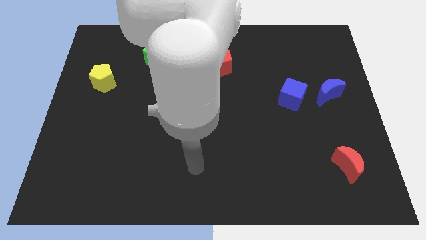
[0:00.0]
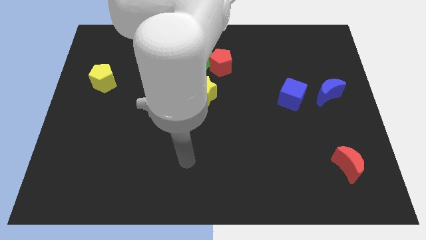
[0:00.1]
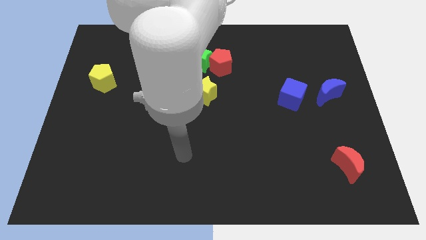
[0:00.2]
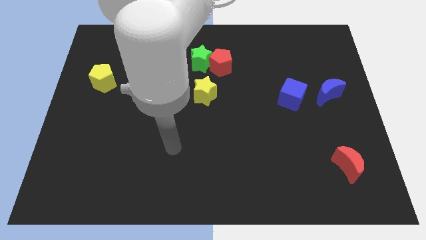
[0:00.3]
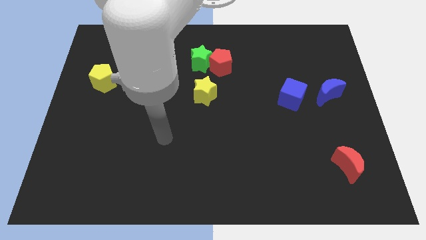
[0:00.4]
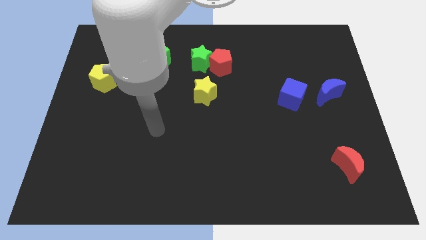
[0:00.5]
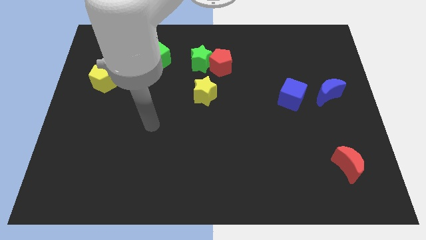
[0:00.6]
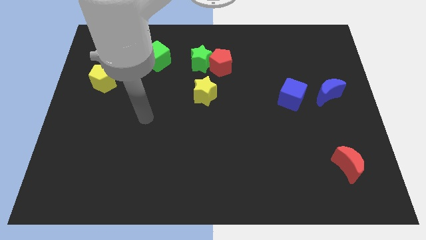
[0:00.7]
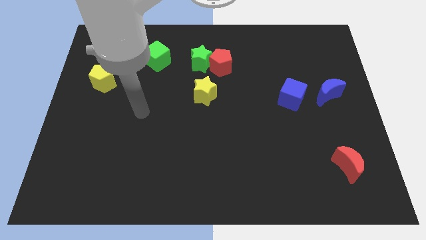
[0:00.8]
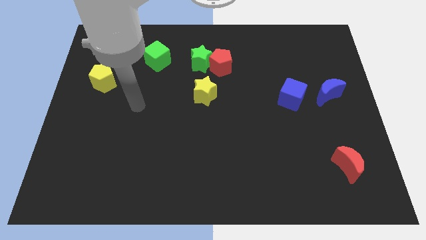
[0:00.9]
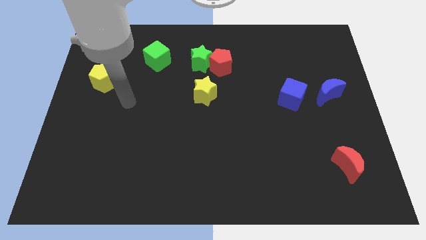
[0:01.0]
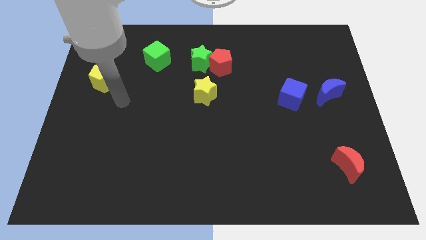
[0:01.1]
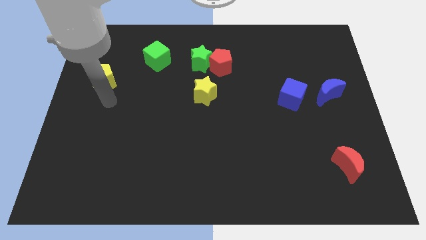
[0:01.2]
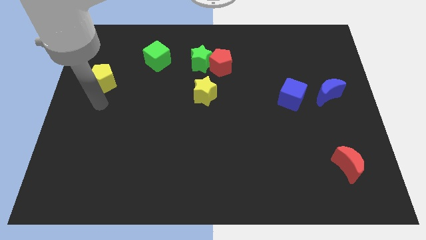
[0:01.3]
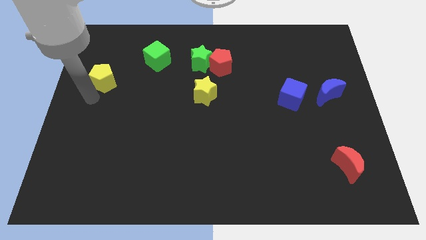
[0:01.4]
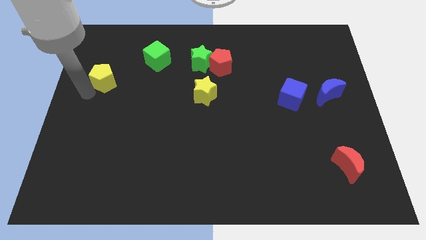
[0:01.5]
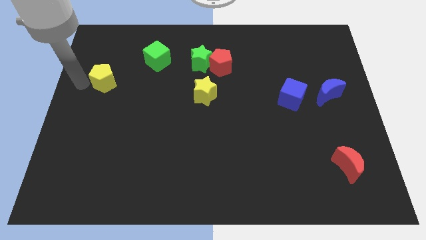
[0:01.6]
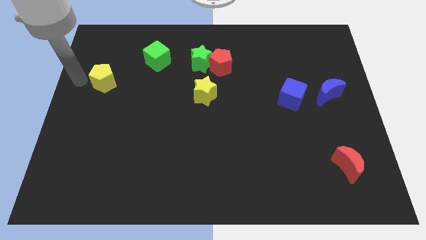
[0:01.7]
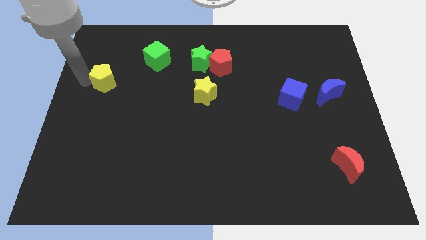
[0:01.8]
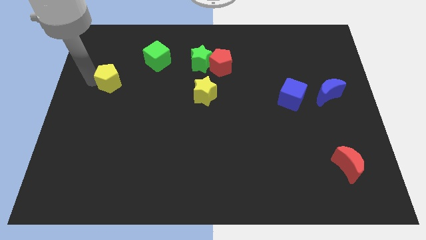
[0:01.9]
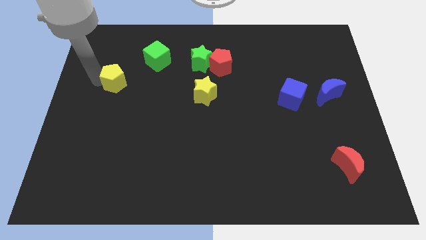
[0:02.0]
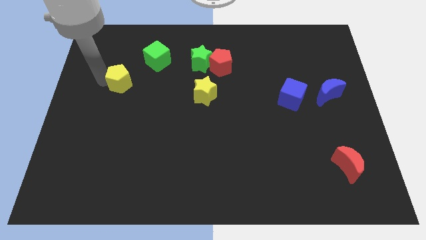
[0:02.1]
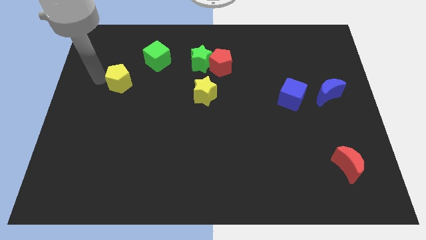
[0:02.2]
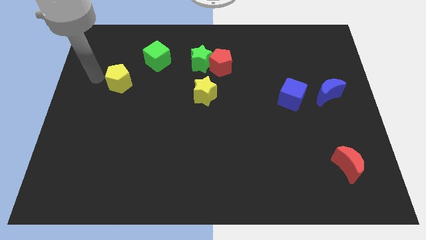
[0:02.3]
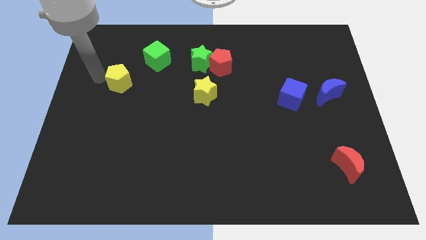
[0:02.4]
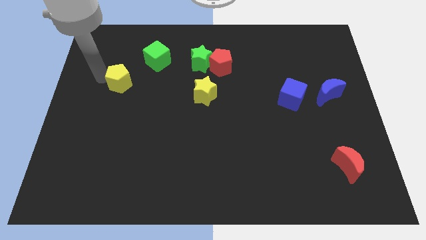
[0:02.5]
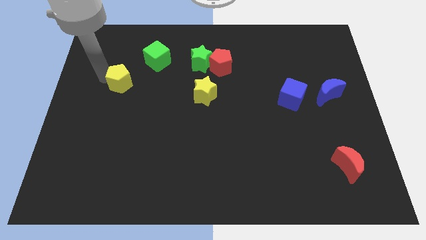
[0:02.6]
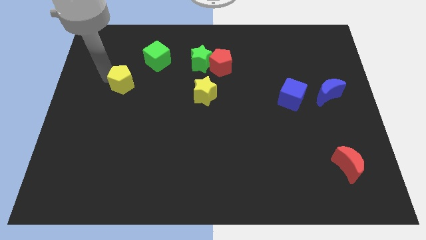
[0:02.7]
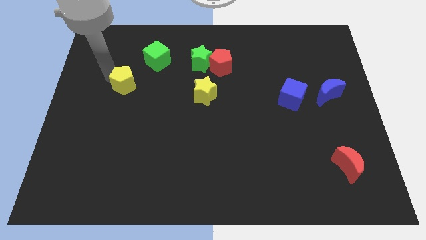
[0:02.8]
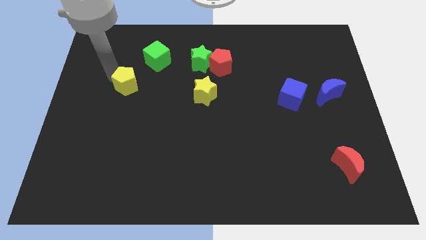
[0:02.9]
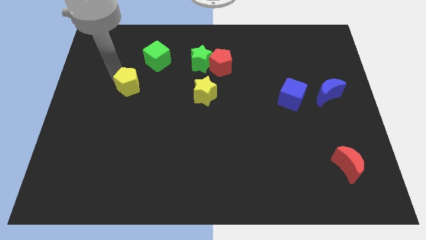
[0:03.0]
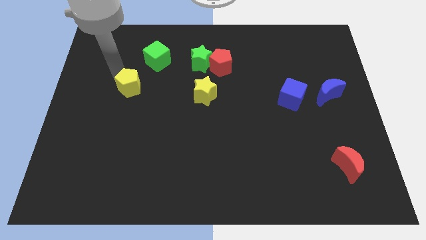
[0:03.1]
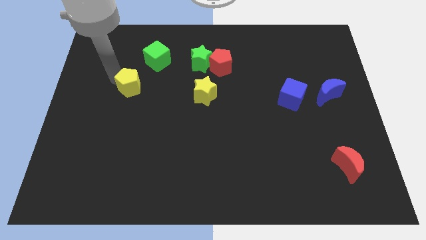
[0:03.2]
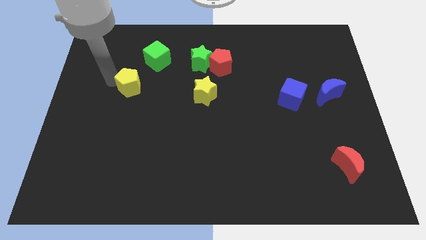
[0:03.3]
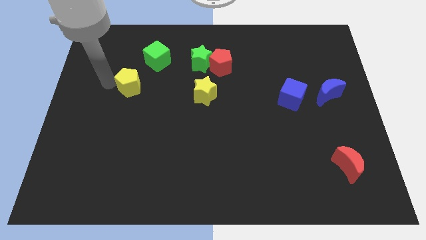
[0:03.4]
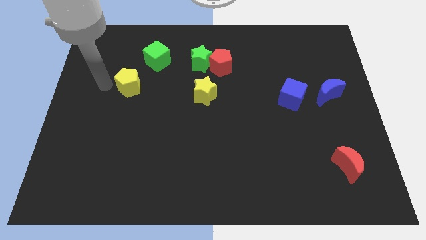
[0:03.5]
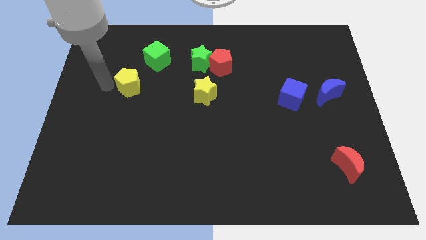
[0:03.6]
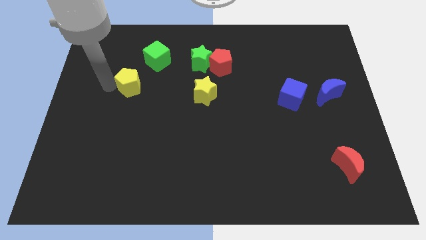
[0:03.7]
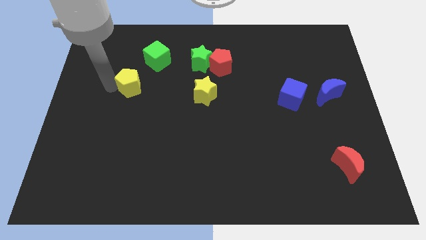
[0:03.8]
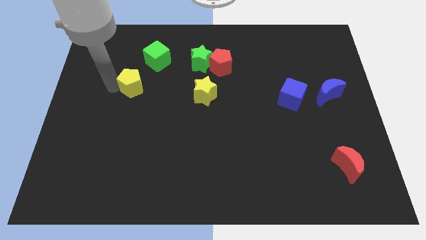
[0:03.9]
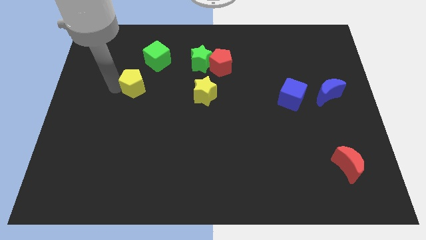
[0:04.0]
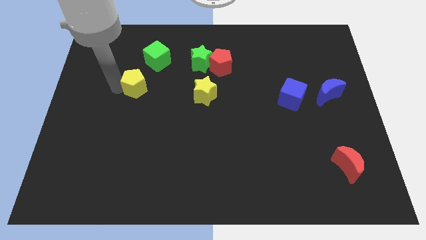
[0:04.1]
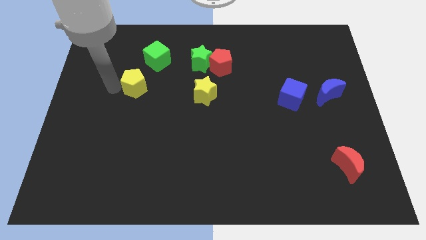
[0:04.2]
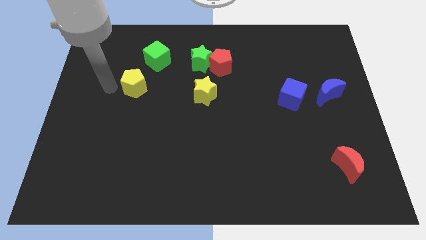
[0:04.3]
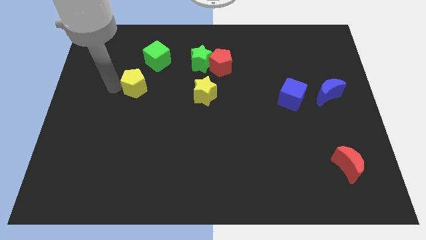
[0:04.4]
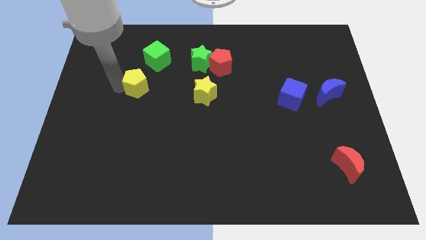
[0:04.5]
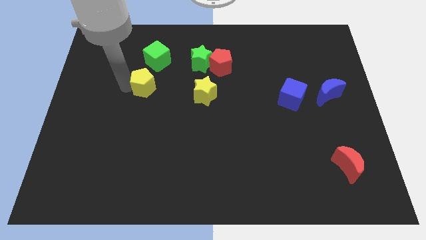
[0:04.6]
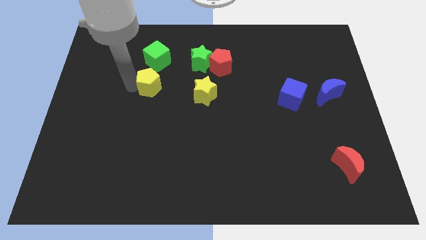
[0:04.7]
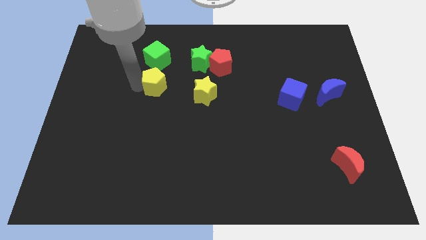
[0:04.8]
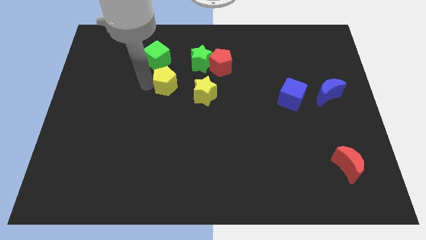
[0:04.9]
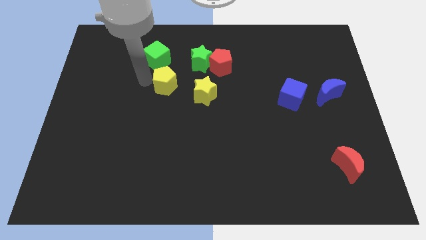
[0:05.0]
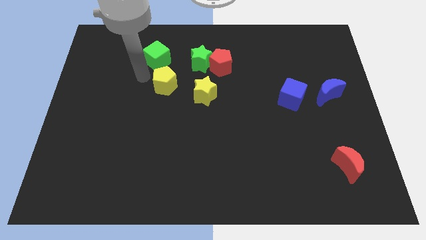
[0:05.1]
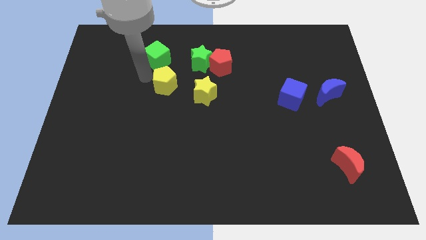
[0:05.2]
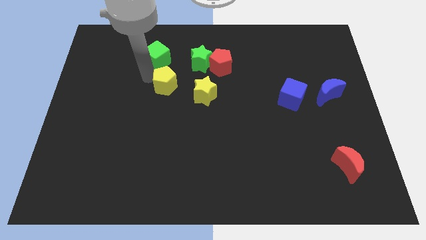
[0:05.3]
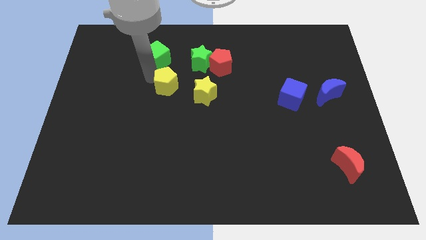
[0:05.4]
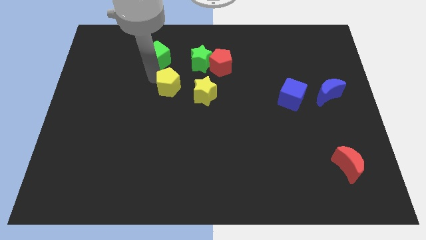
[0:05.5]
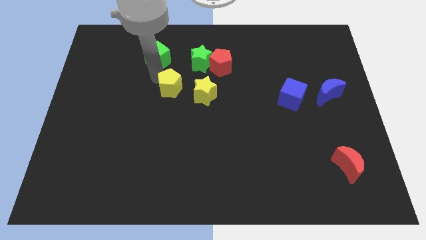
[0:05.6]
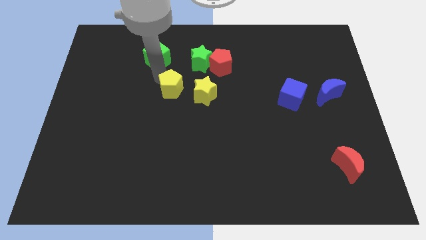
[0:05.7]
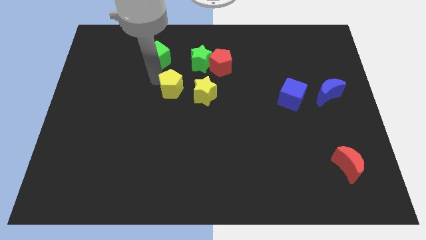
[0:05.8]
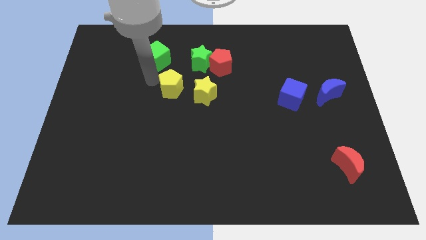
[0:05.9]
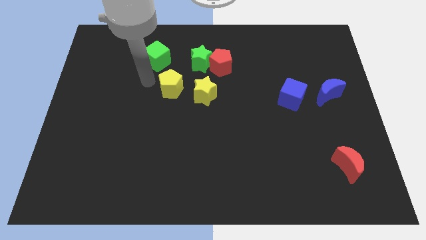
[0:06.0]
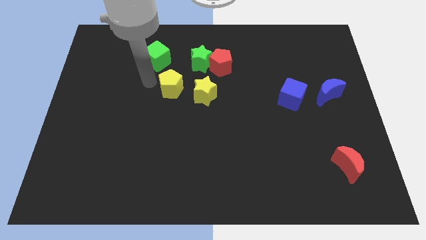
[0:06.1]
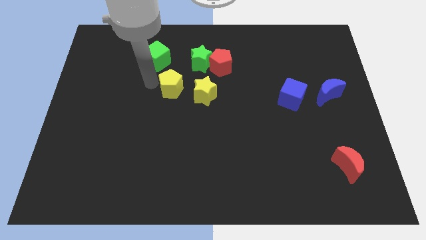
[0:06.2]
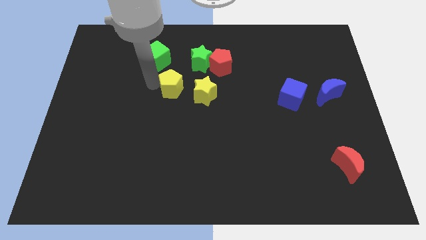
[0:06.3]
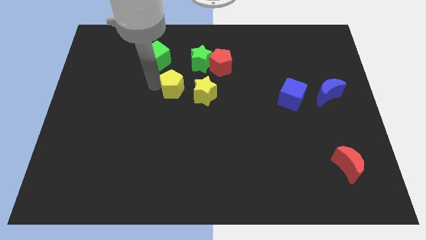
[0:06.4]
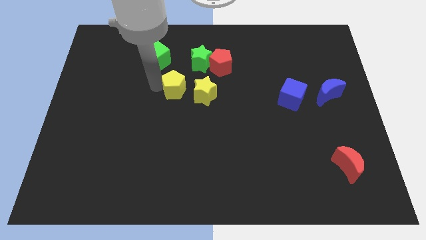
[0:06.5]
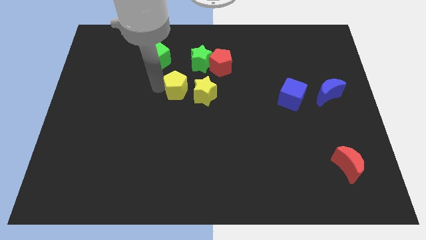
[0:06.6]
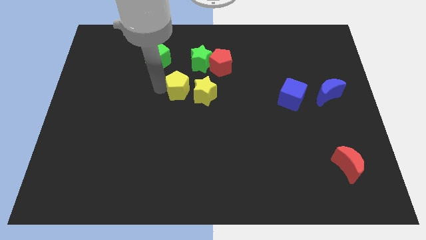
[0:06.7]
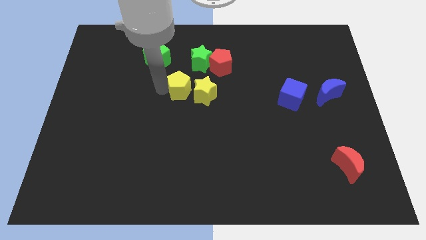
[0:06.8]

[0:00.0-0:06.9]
push the yellow pentagon towards the yellow star

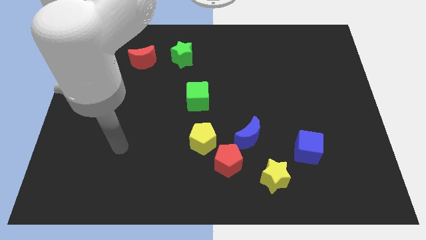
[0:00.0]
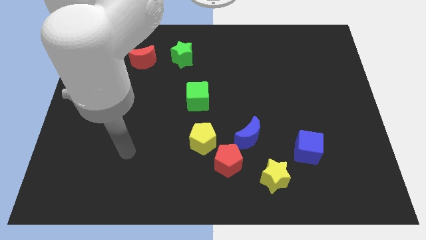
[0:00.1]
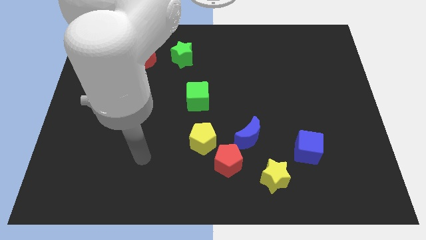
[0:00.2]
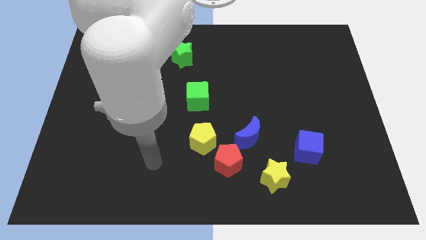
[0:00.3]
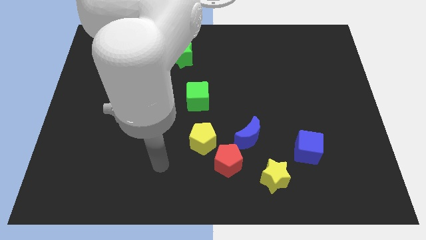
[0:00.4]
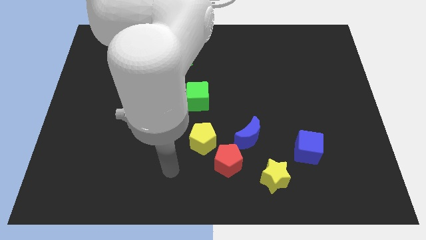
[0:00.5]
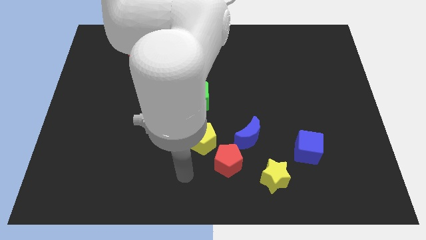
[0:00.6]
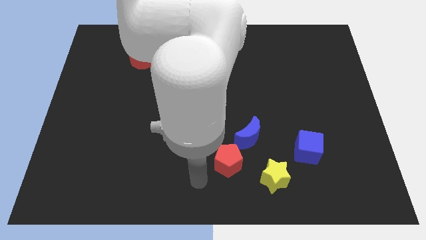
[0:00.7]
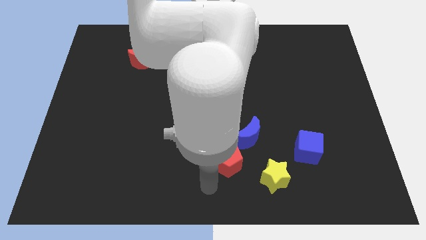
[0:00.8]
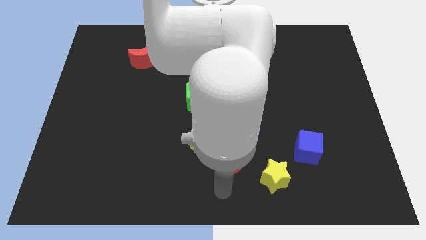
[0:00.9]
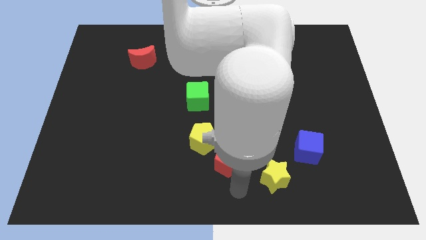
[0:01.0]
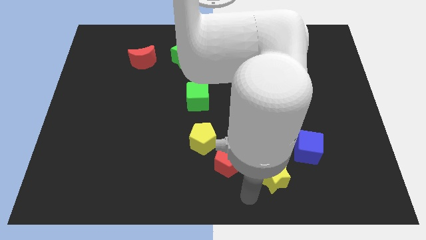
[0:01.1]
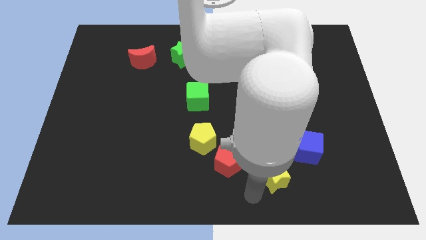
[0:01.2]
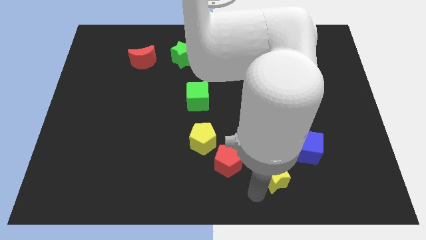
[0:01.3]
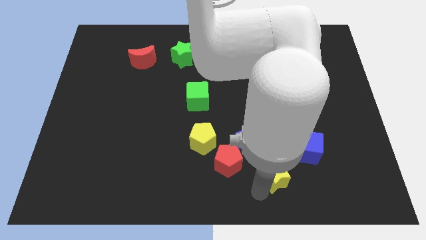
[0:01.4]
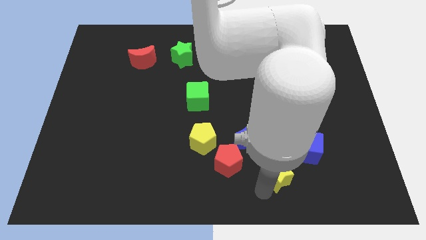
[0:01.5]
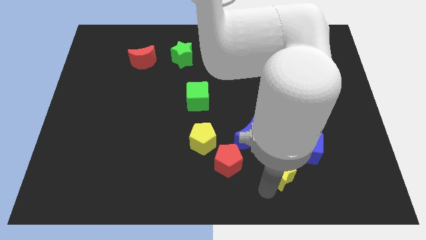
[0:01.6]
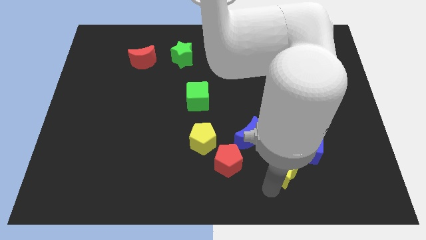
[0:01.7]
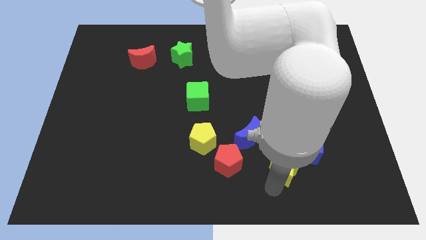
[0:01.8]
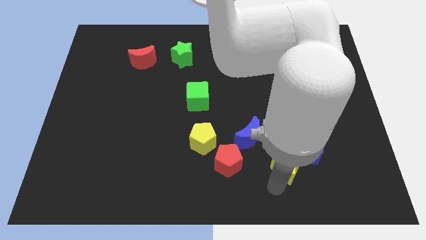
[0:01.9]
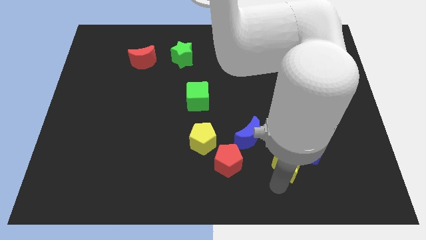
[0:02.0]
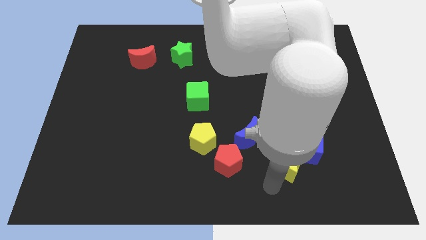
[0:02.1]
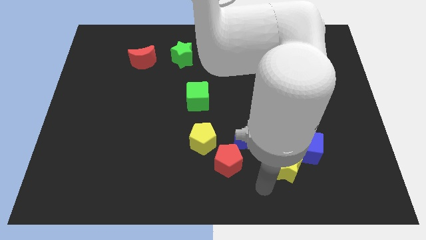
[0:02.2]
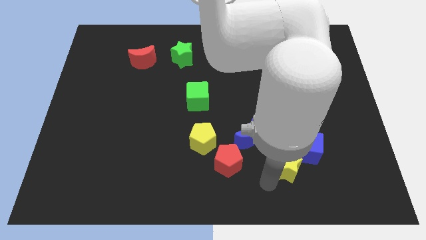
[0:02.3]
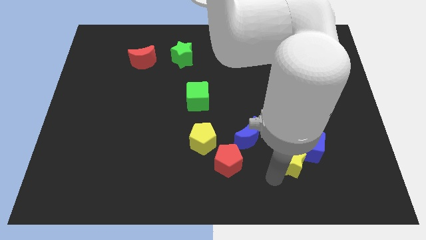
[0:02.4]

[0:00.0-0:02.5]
slide the yellow star to the blue cube
